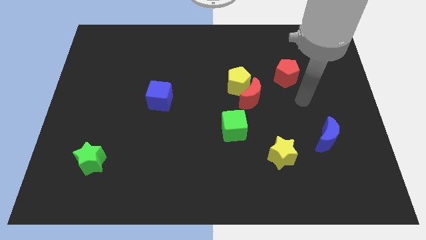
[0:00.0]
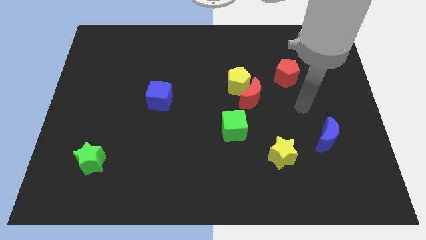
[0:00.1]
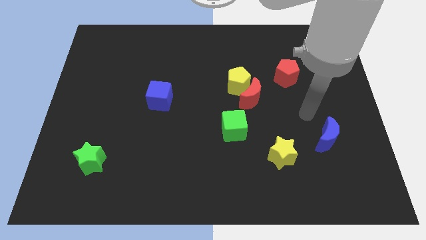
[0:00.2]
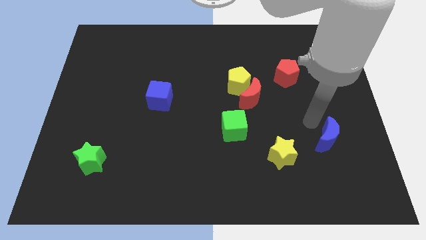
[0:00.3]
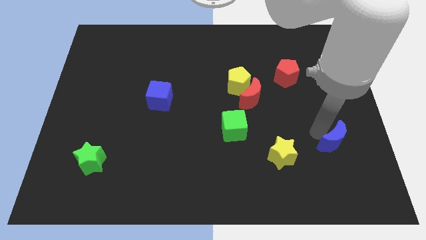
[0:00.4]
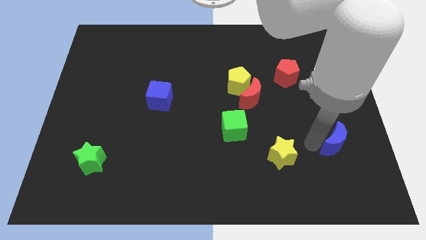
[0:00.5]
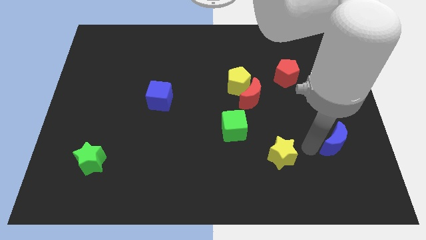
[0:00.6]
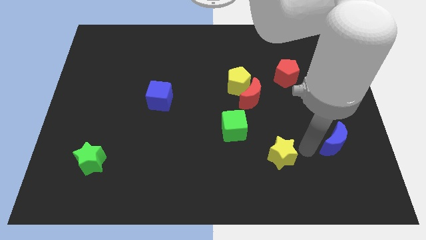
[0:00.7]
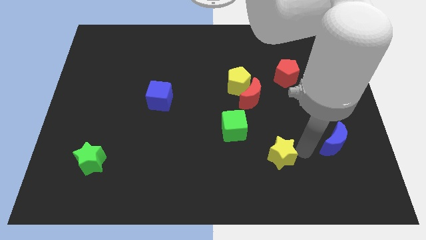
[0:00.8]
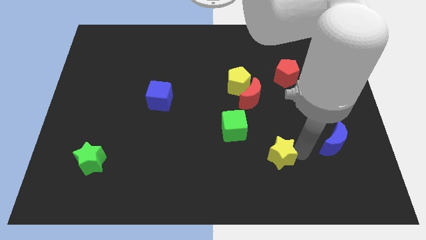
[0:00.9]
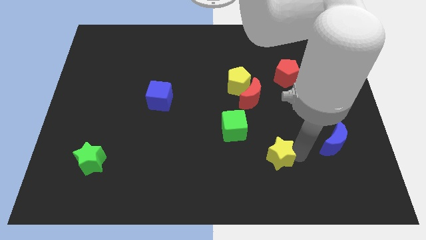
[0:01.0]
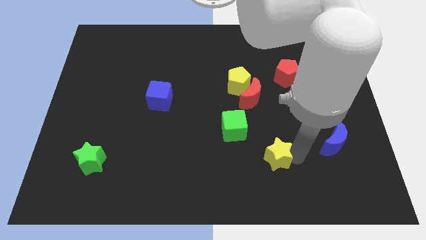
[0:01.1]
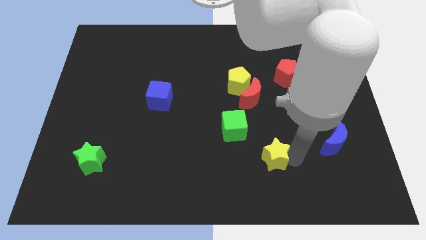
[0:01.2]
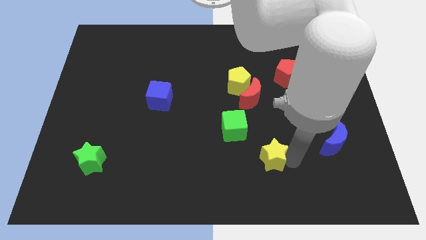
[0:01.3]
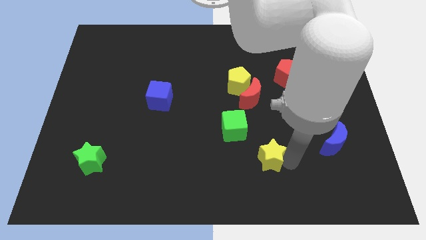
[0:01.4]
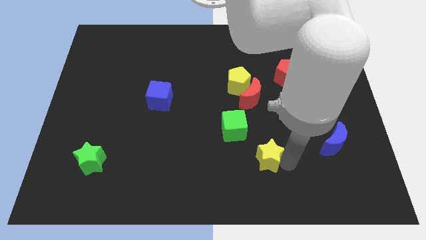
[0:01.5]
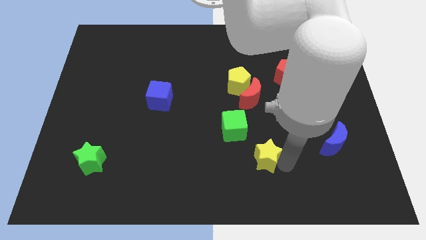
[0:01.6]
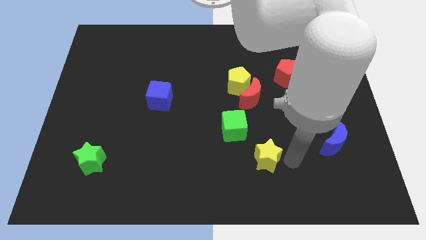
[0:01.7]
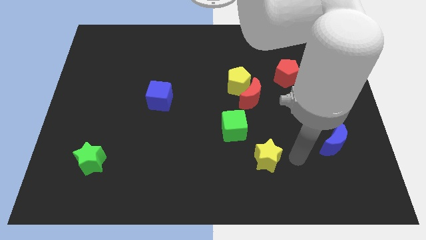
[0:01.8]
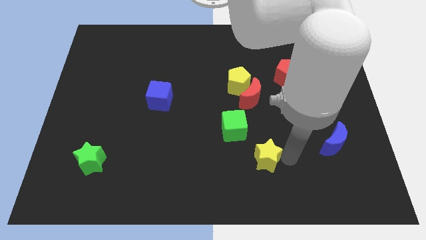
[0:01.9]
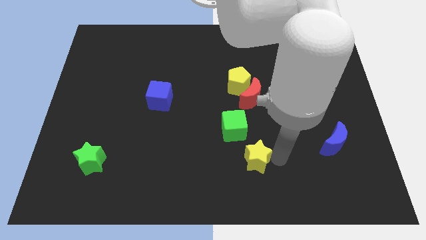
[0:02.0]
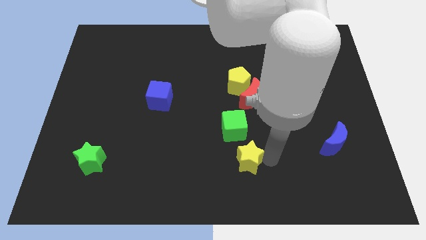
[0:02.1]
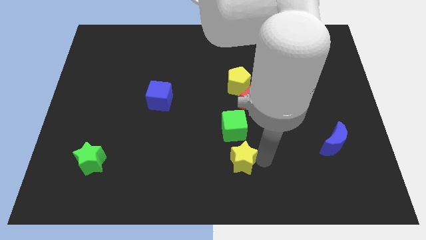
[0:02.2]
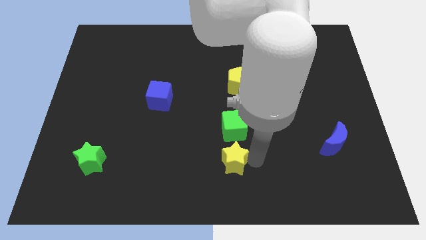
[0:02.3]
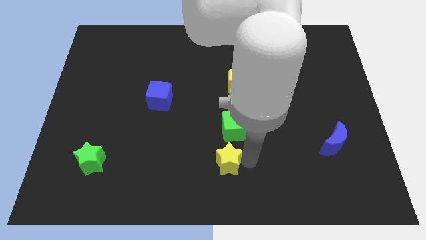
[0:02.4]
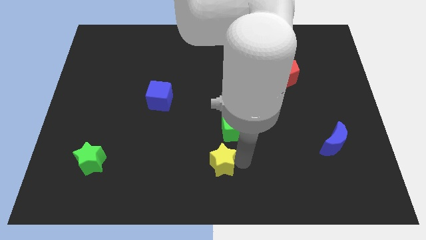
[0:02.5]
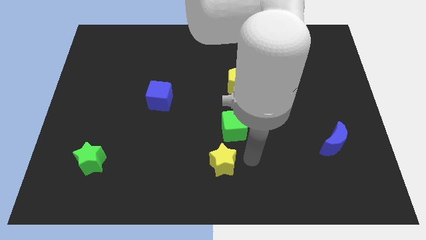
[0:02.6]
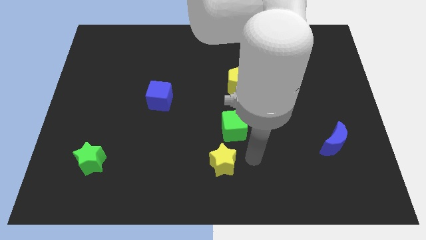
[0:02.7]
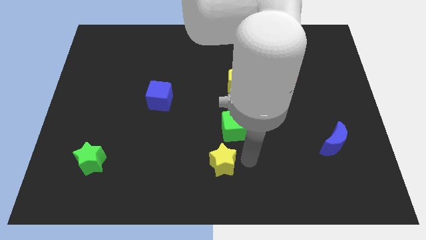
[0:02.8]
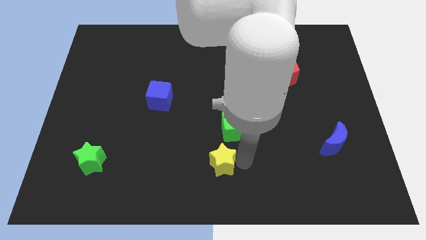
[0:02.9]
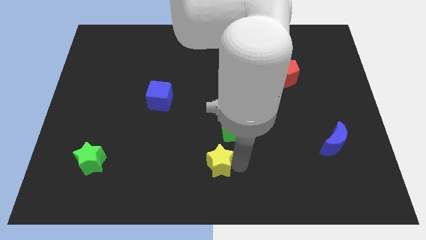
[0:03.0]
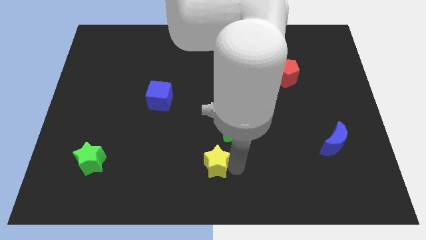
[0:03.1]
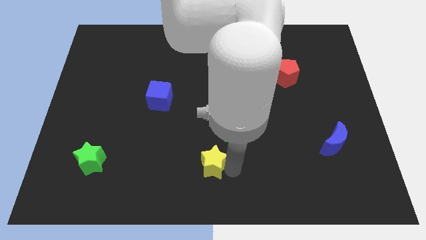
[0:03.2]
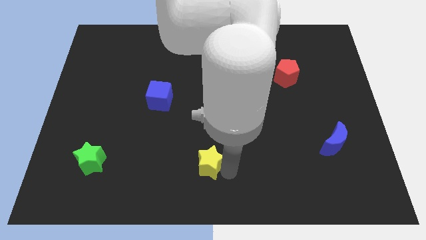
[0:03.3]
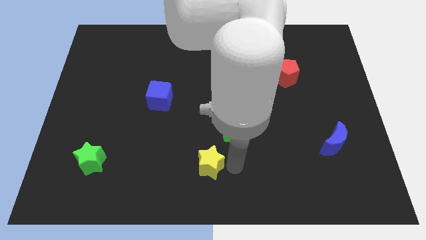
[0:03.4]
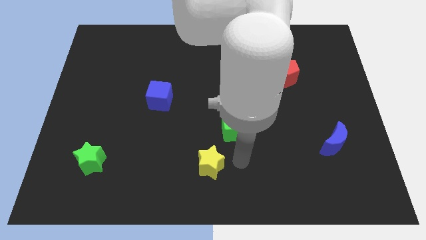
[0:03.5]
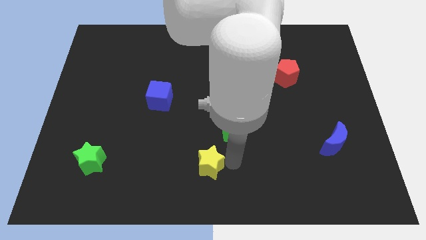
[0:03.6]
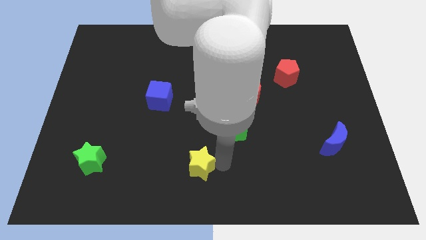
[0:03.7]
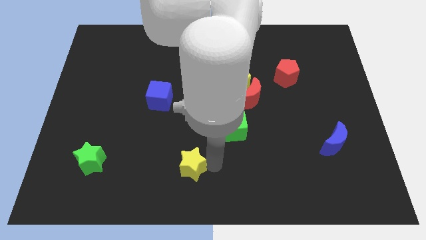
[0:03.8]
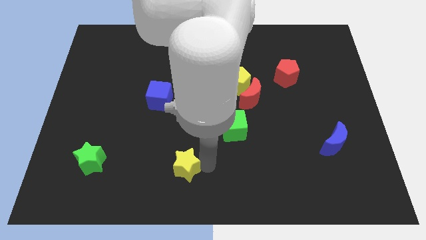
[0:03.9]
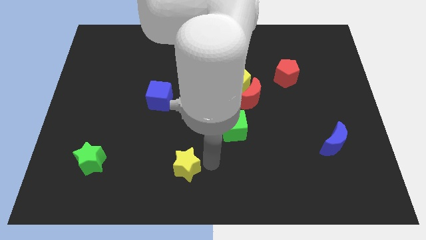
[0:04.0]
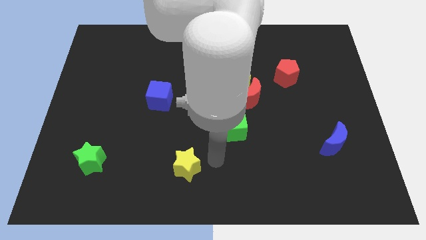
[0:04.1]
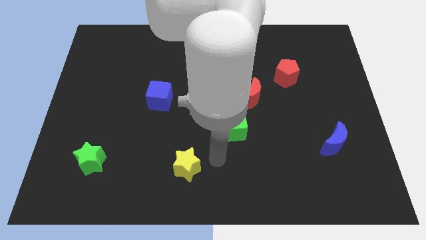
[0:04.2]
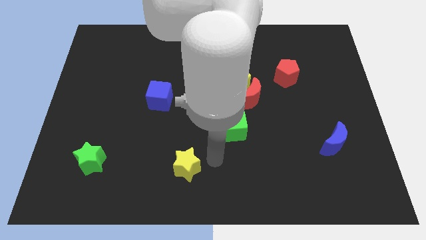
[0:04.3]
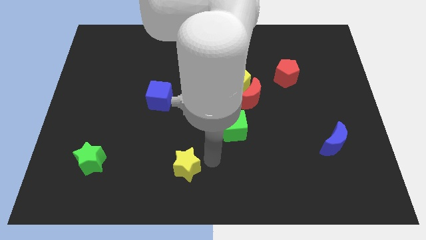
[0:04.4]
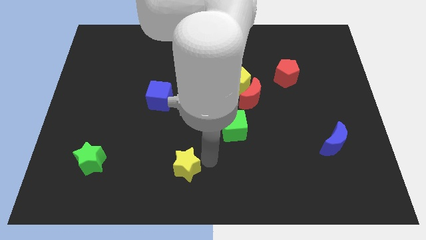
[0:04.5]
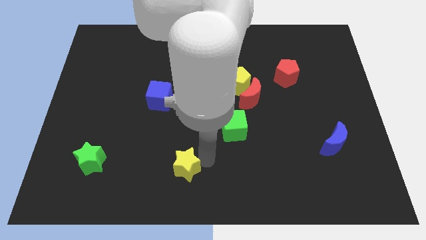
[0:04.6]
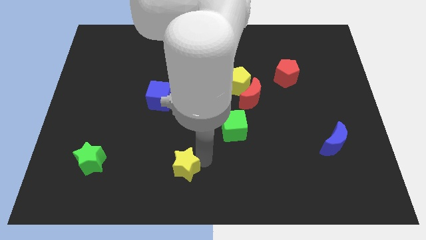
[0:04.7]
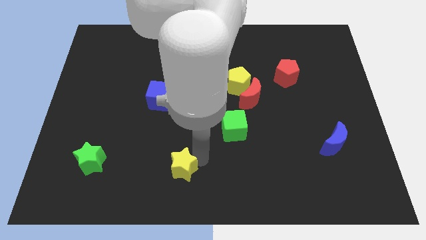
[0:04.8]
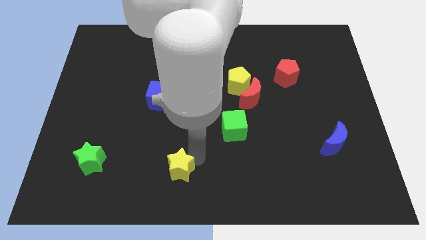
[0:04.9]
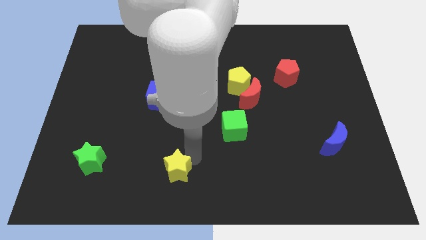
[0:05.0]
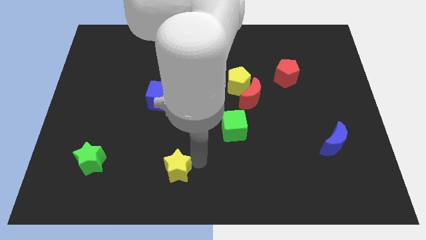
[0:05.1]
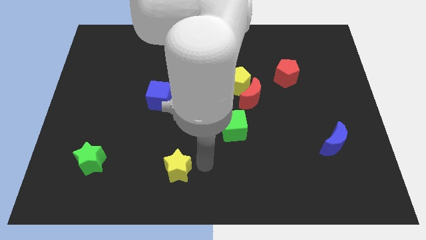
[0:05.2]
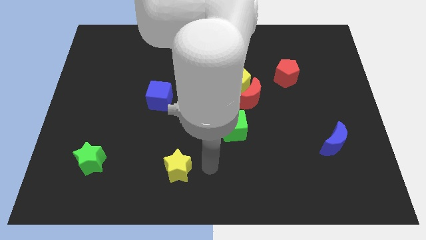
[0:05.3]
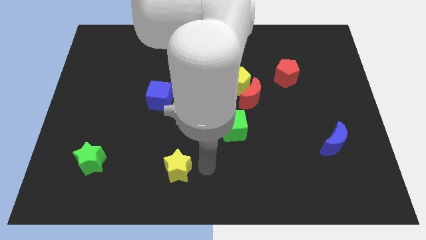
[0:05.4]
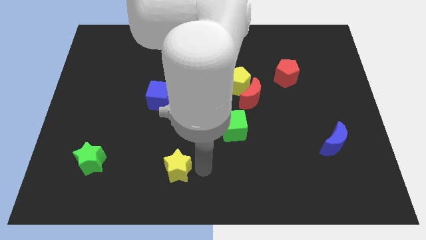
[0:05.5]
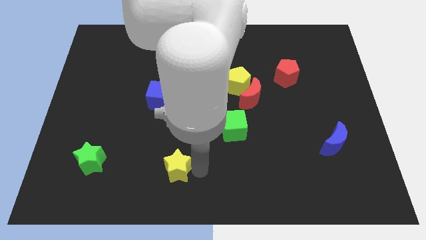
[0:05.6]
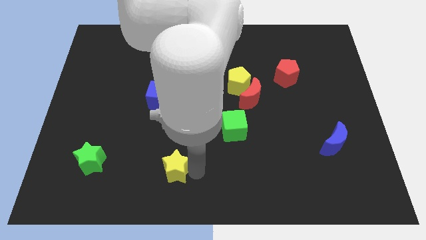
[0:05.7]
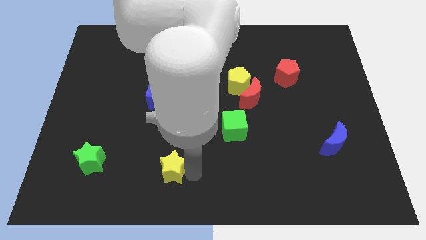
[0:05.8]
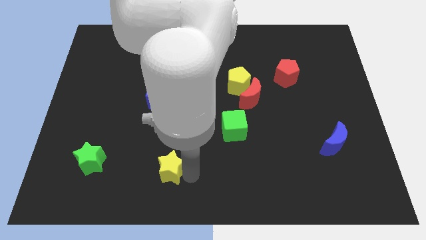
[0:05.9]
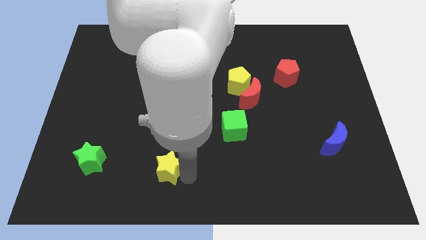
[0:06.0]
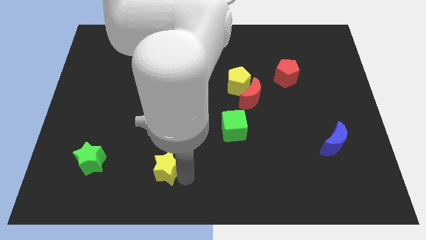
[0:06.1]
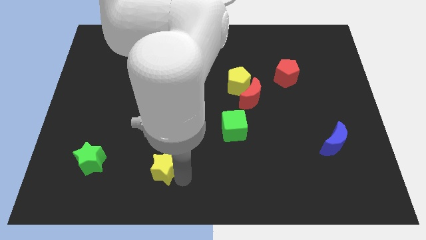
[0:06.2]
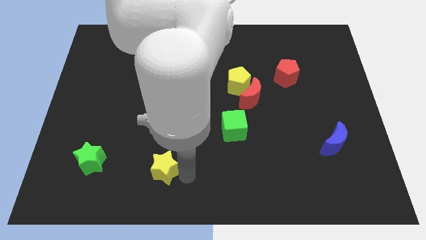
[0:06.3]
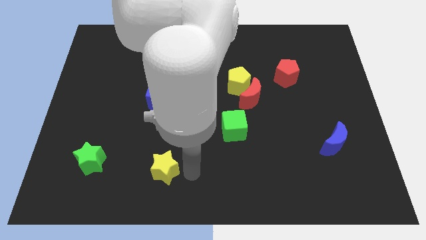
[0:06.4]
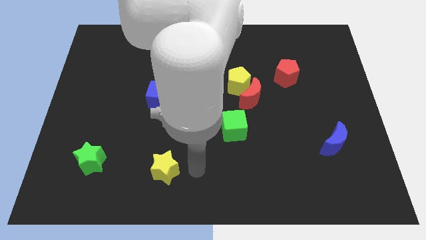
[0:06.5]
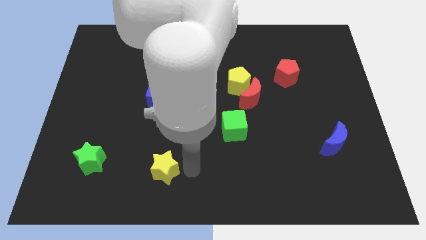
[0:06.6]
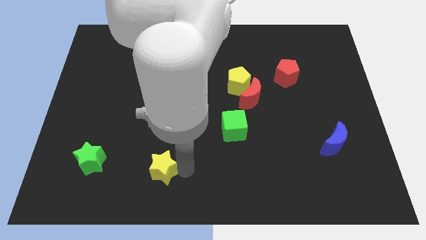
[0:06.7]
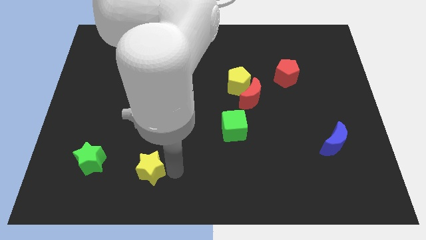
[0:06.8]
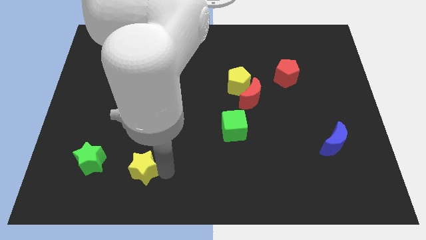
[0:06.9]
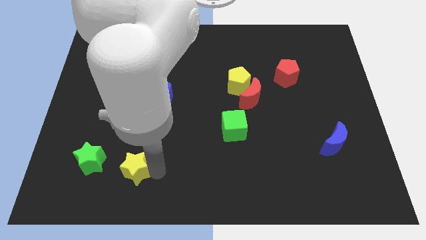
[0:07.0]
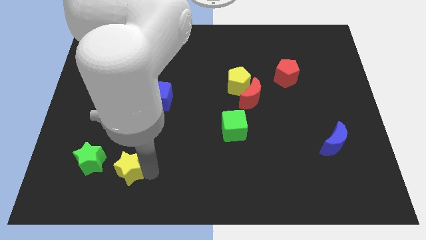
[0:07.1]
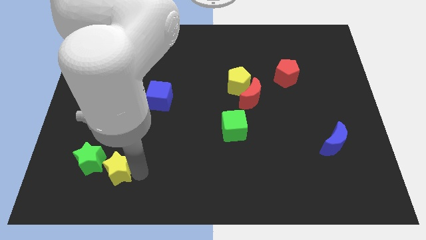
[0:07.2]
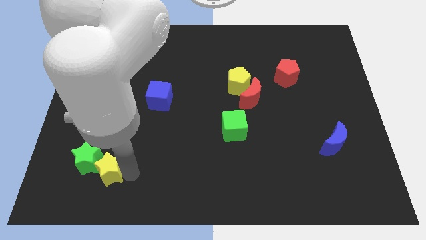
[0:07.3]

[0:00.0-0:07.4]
move the yellow star to the green star

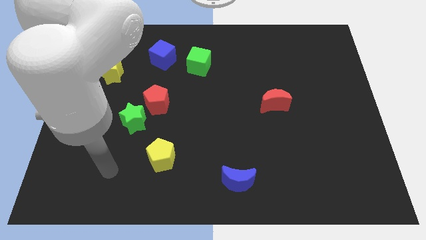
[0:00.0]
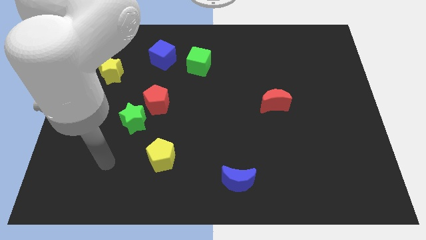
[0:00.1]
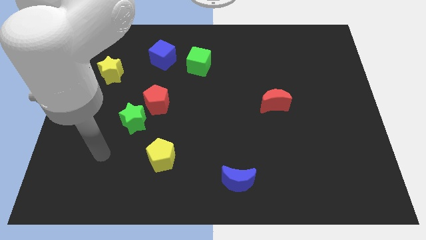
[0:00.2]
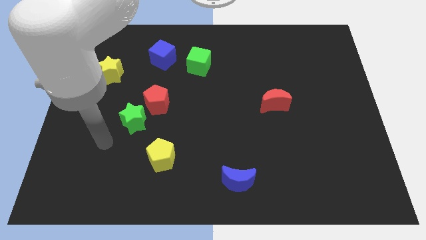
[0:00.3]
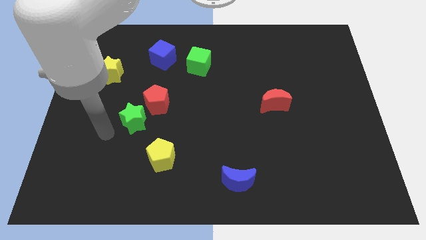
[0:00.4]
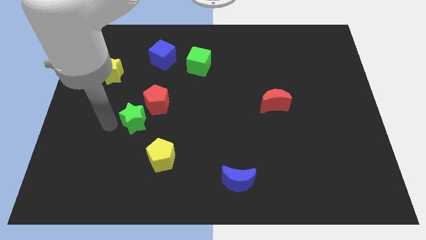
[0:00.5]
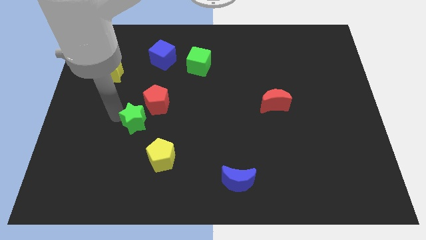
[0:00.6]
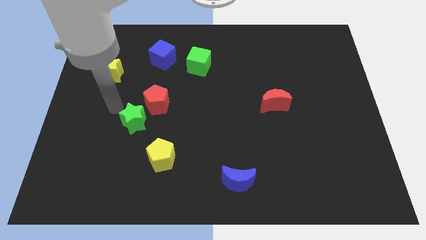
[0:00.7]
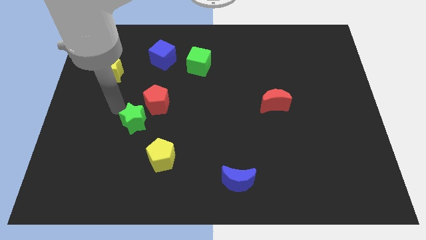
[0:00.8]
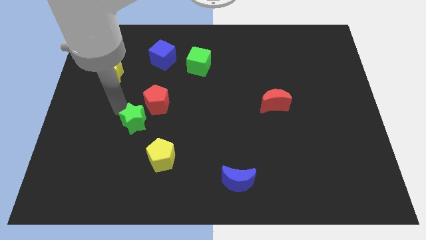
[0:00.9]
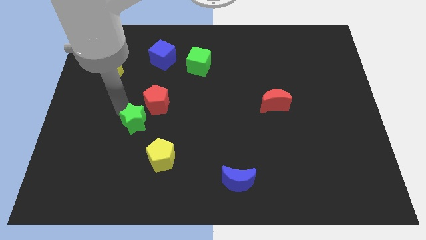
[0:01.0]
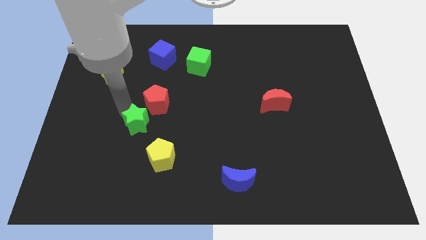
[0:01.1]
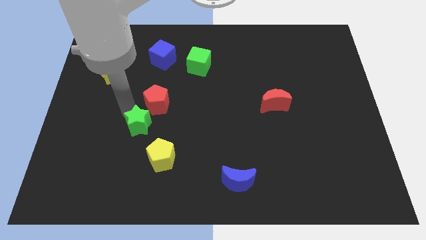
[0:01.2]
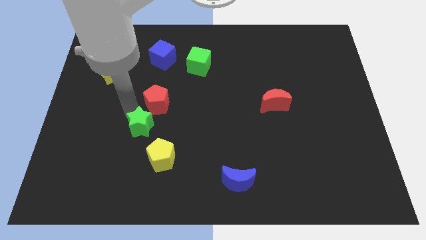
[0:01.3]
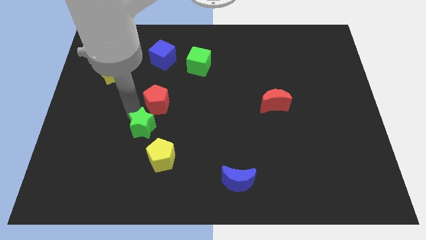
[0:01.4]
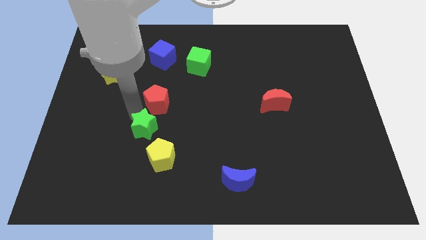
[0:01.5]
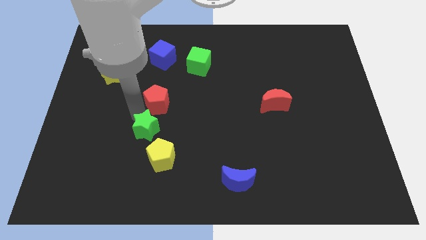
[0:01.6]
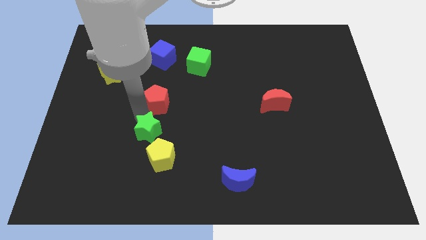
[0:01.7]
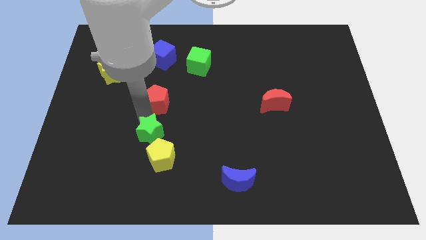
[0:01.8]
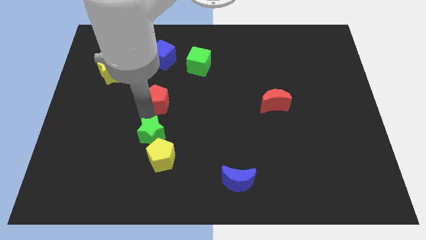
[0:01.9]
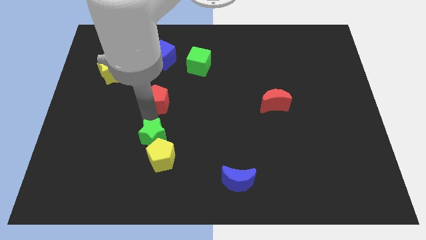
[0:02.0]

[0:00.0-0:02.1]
put the green star close to the yellow pentagon
